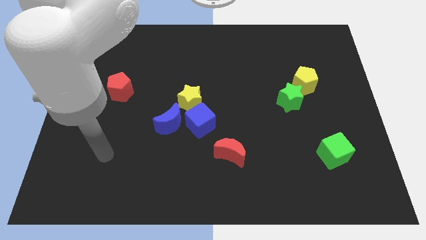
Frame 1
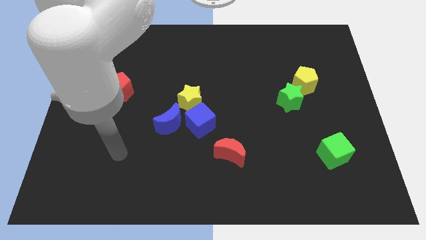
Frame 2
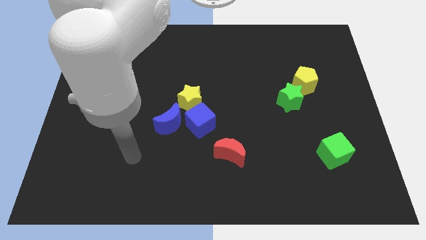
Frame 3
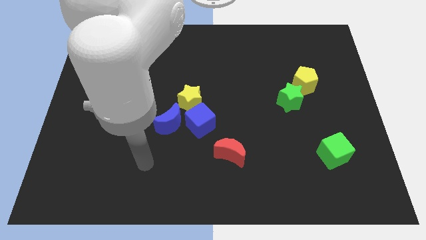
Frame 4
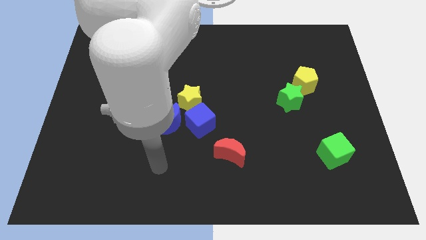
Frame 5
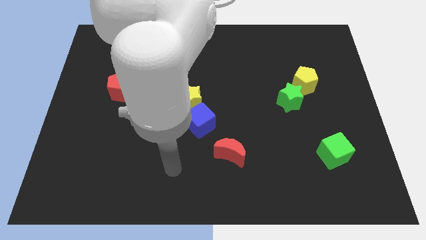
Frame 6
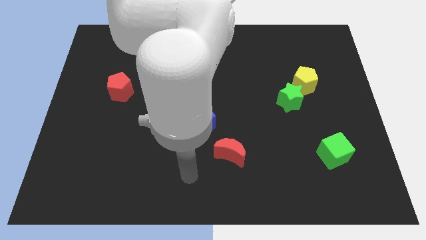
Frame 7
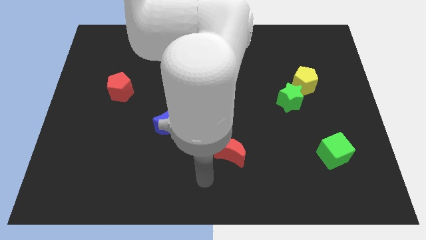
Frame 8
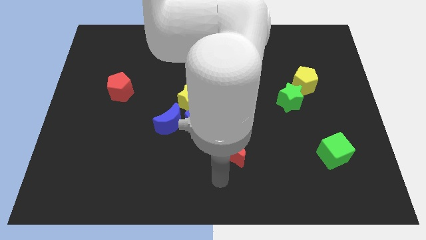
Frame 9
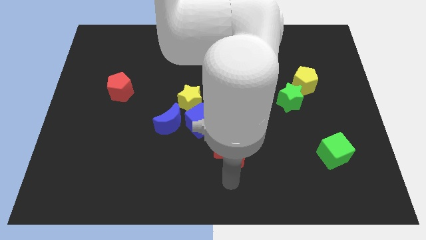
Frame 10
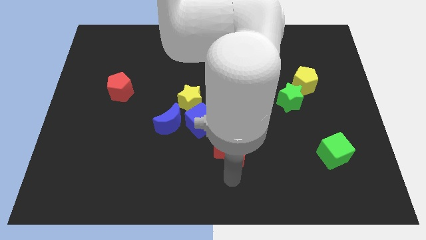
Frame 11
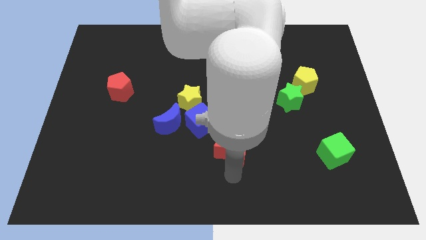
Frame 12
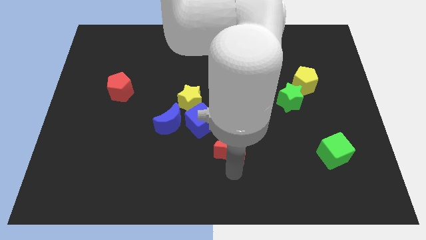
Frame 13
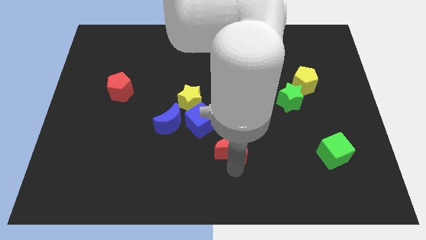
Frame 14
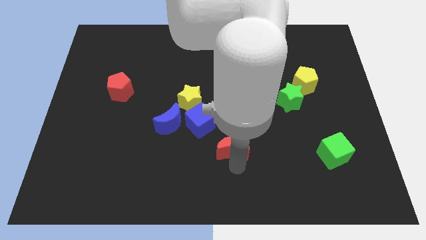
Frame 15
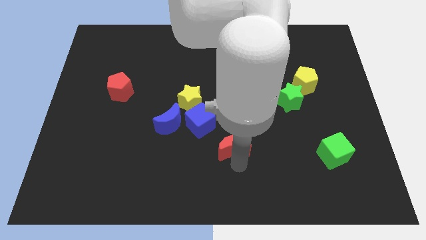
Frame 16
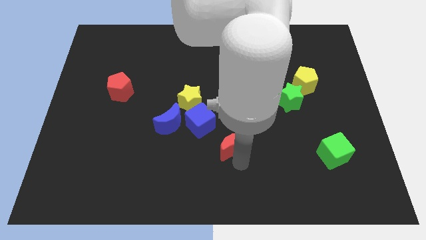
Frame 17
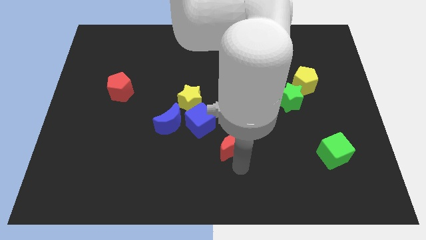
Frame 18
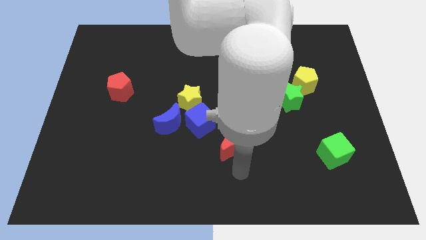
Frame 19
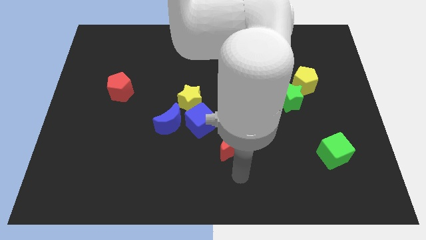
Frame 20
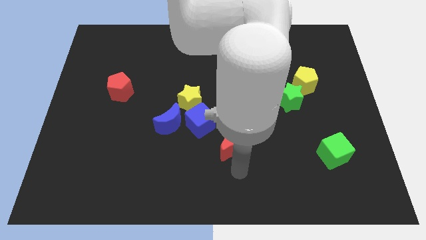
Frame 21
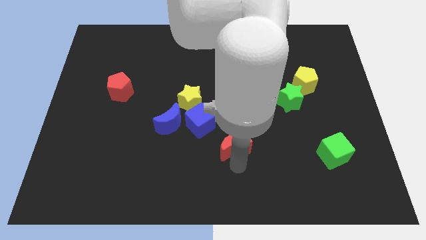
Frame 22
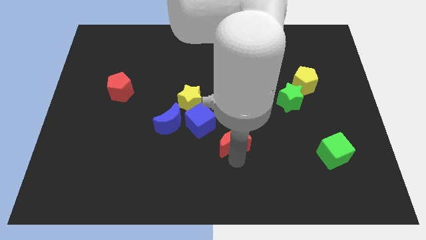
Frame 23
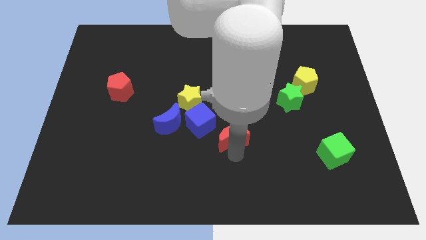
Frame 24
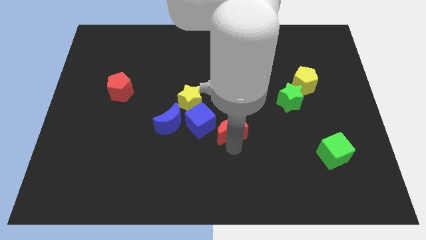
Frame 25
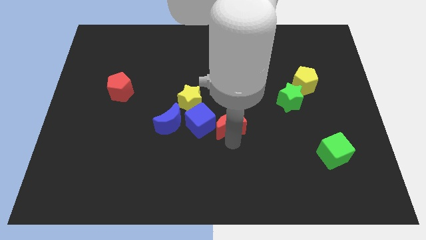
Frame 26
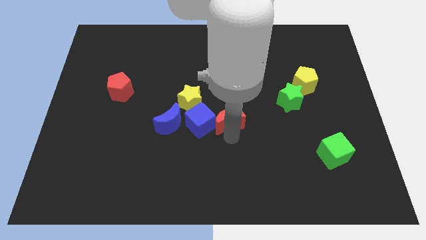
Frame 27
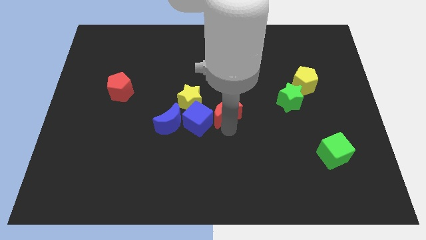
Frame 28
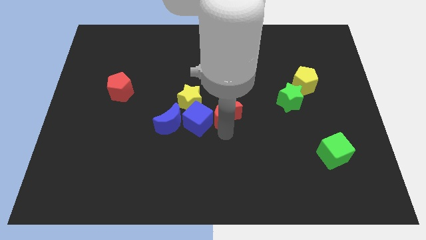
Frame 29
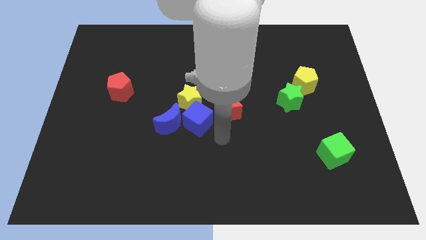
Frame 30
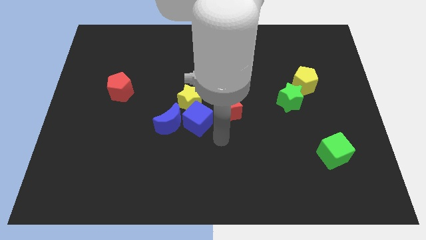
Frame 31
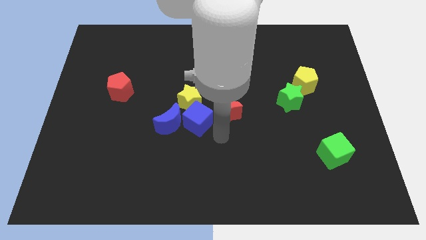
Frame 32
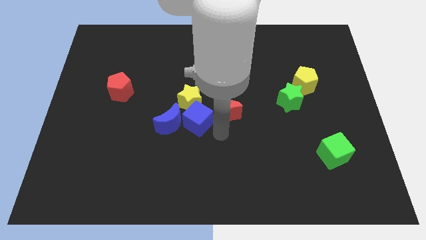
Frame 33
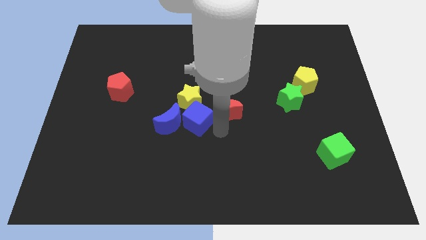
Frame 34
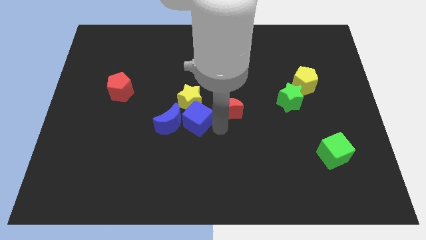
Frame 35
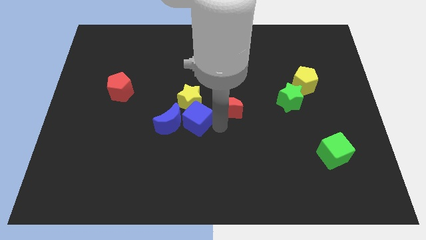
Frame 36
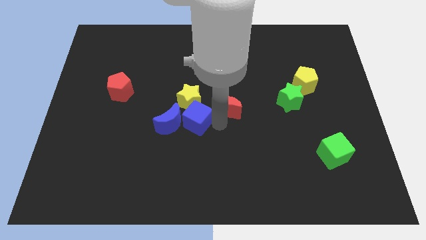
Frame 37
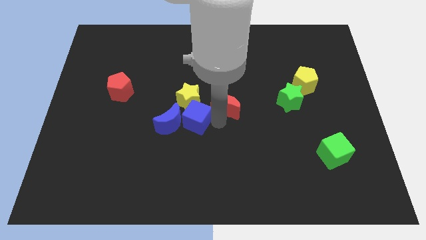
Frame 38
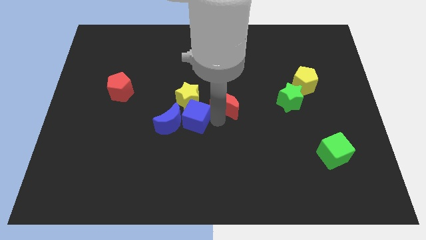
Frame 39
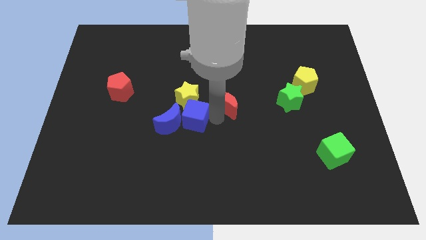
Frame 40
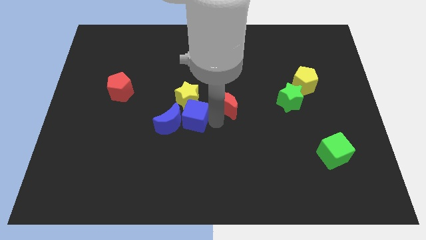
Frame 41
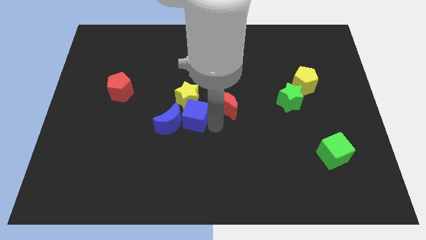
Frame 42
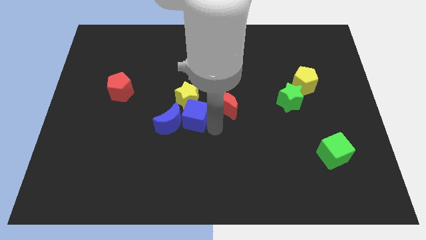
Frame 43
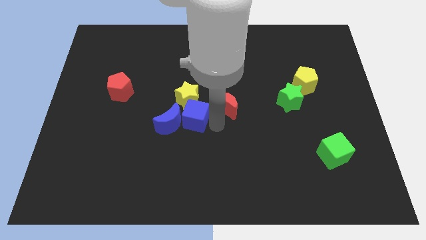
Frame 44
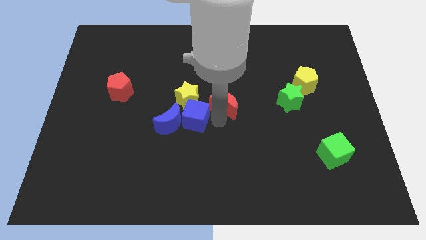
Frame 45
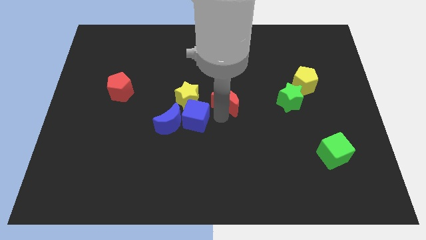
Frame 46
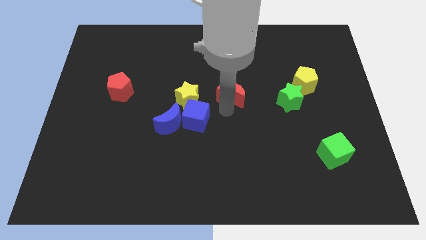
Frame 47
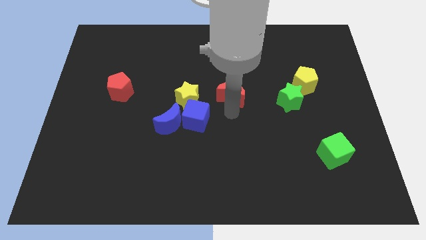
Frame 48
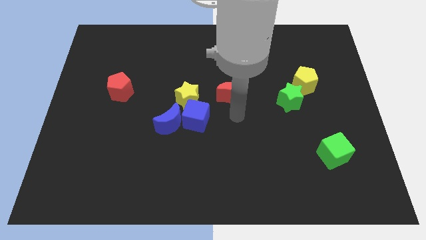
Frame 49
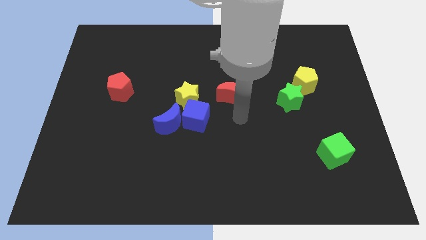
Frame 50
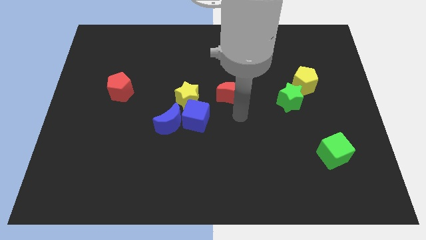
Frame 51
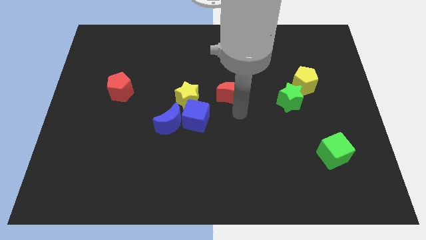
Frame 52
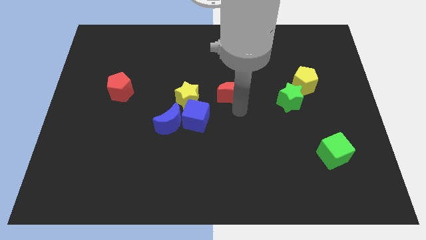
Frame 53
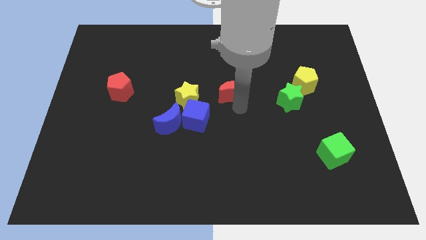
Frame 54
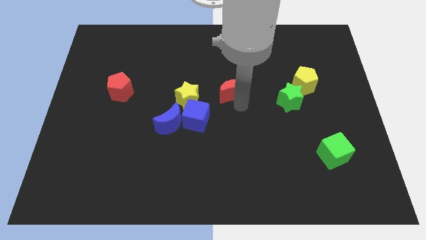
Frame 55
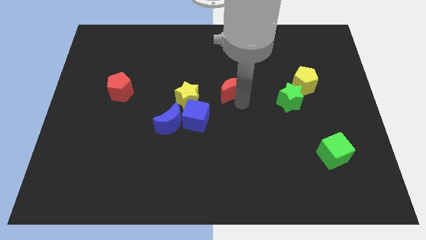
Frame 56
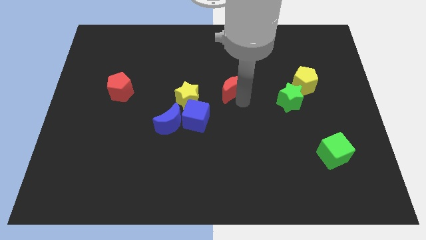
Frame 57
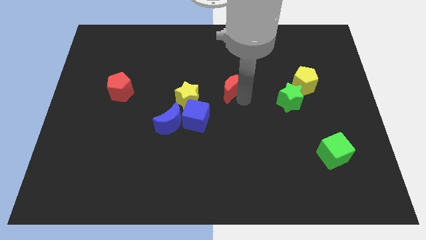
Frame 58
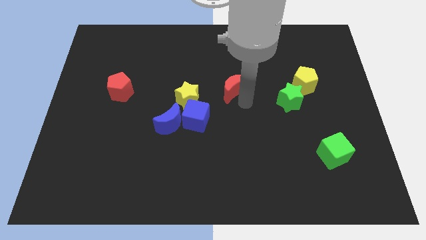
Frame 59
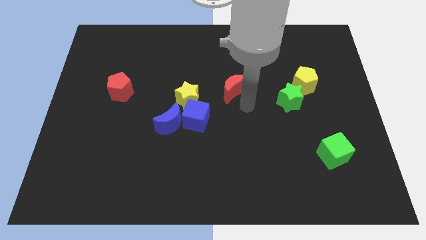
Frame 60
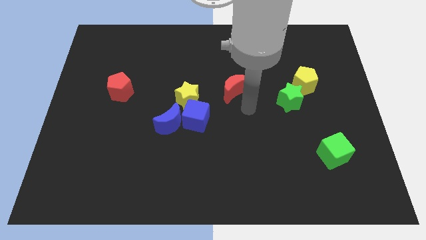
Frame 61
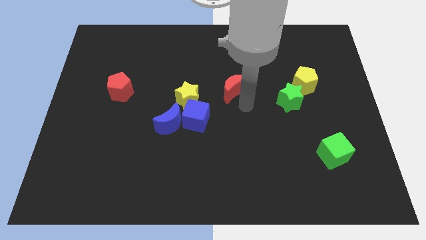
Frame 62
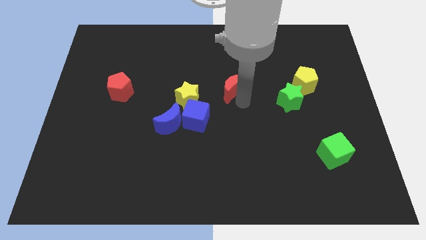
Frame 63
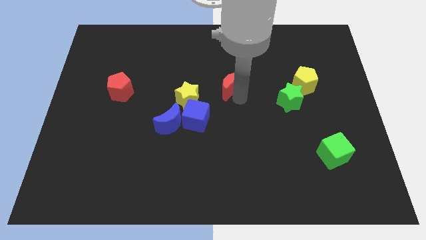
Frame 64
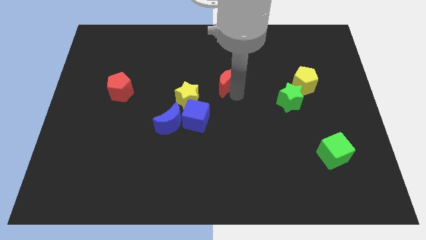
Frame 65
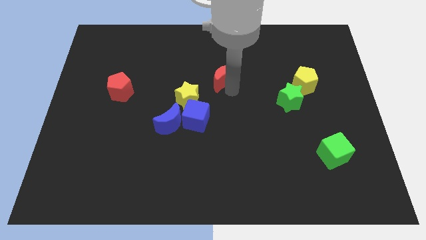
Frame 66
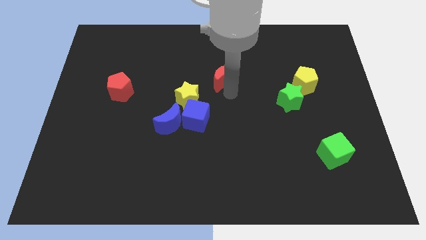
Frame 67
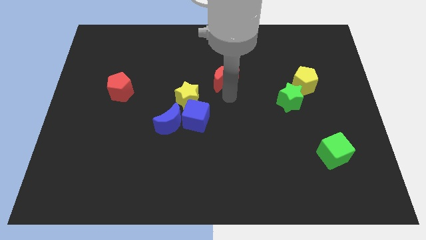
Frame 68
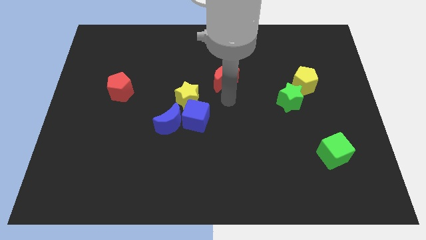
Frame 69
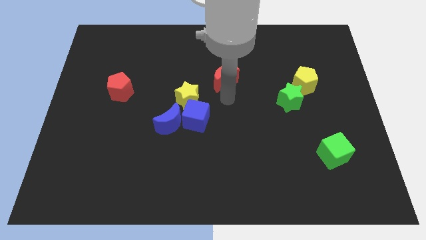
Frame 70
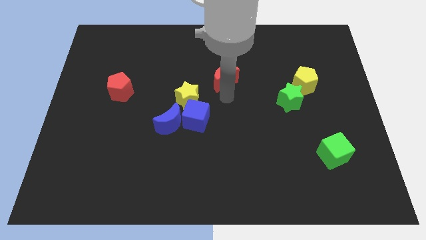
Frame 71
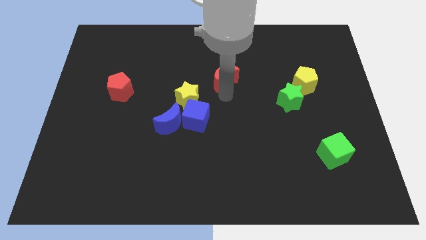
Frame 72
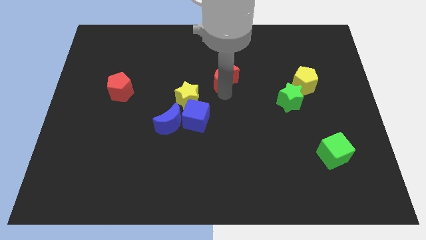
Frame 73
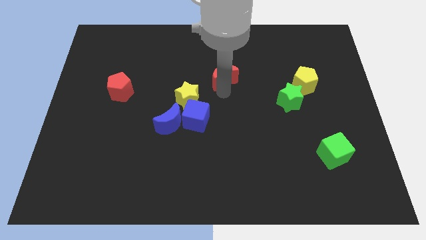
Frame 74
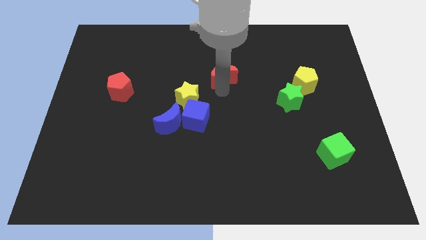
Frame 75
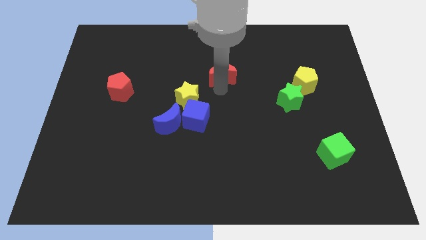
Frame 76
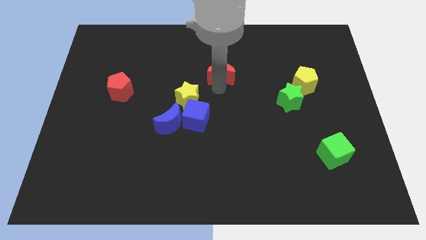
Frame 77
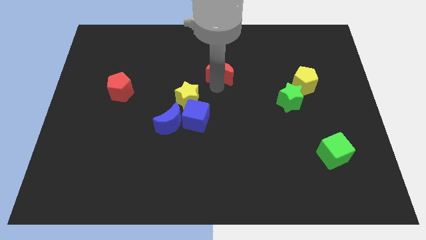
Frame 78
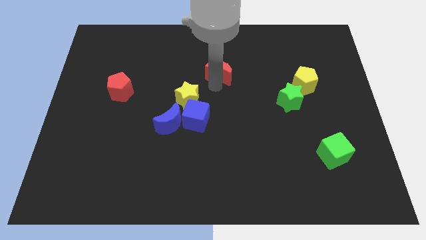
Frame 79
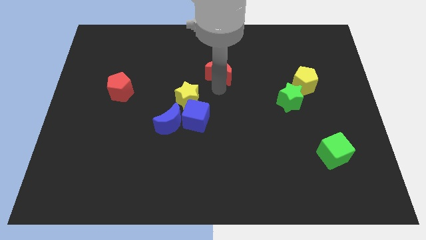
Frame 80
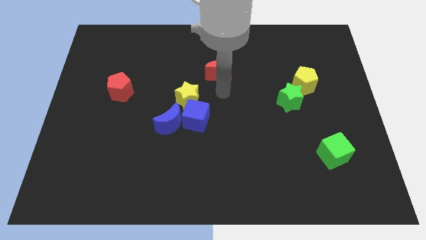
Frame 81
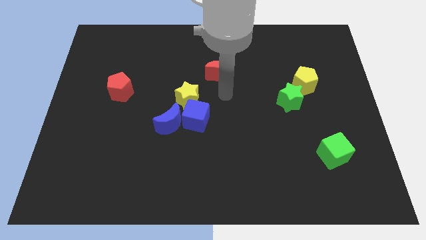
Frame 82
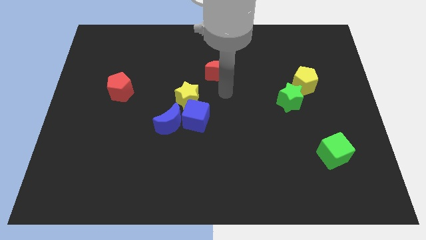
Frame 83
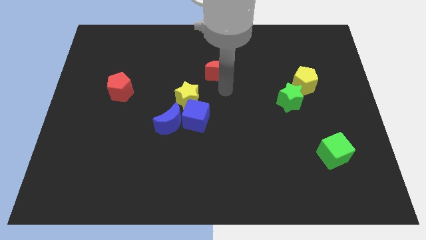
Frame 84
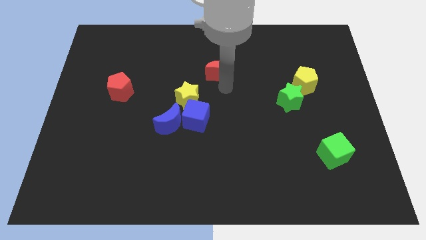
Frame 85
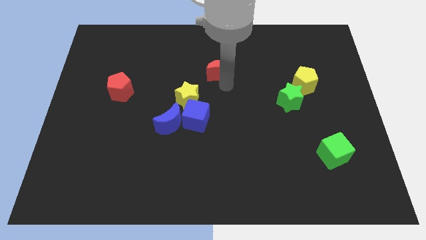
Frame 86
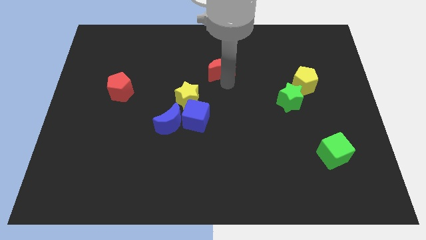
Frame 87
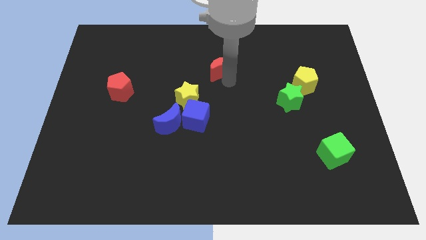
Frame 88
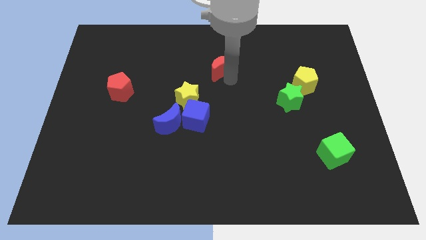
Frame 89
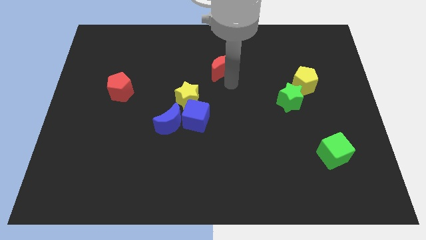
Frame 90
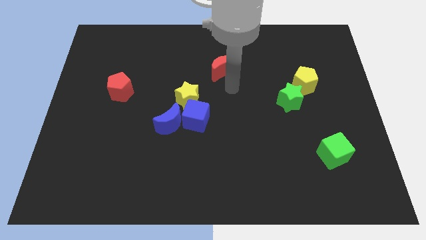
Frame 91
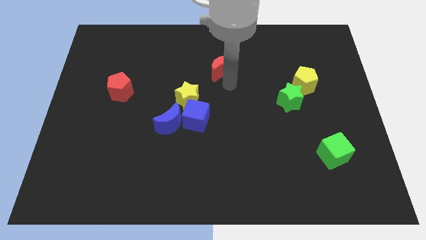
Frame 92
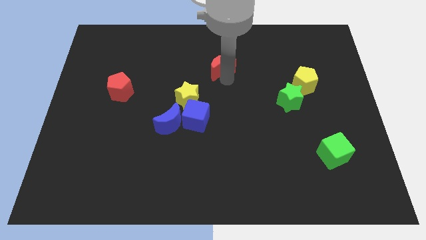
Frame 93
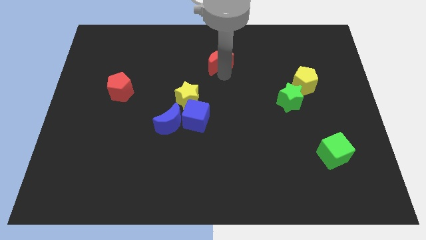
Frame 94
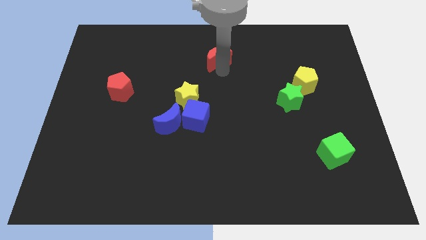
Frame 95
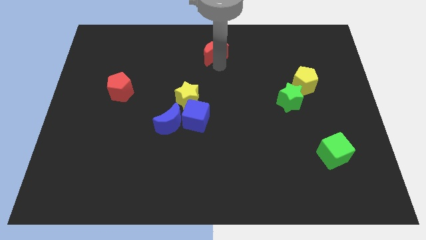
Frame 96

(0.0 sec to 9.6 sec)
move the red moon to the top
